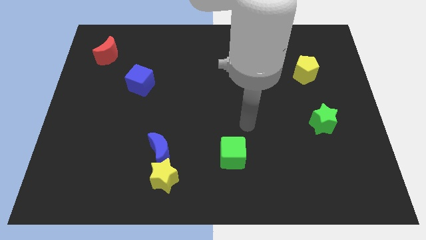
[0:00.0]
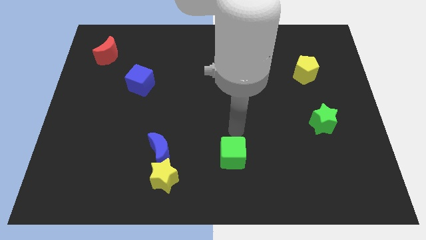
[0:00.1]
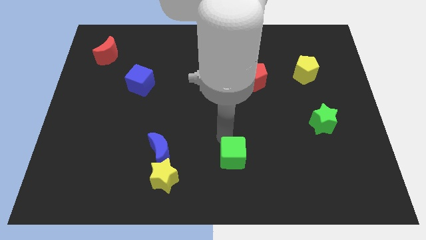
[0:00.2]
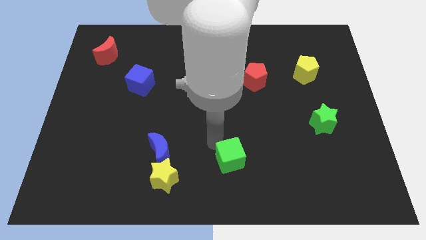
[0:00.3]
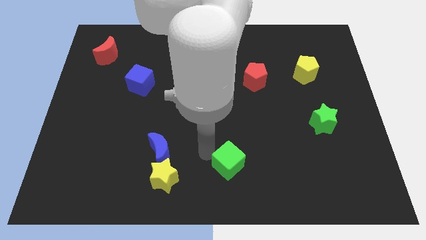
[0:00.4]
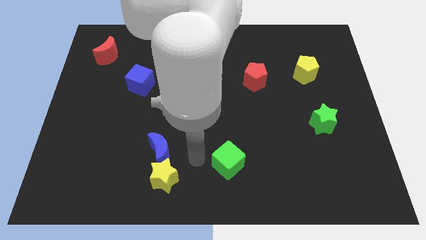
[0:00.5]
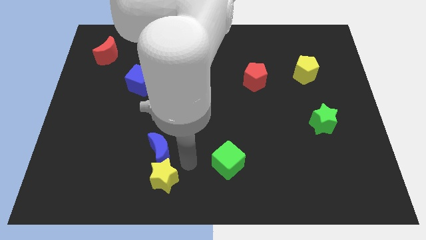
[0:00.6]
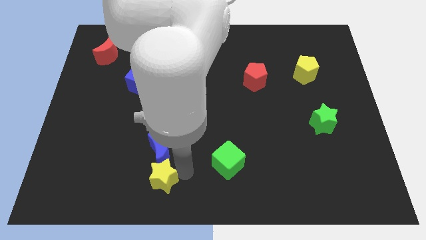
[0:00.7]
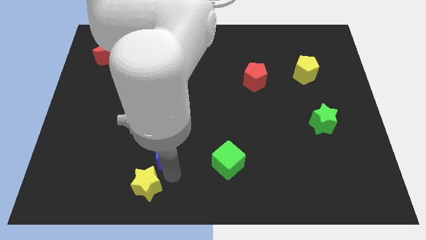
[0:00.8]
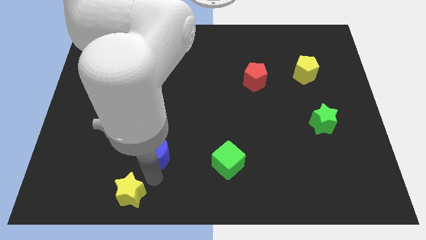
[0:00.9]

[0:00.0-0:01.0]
pull the blue moon apart from the yellow star

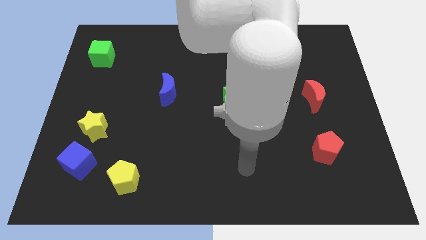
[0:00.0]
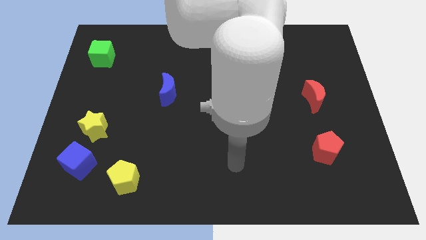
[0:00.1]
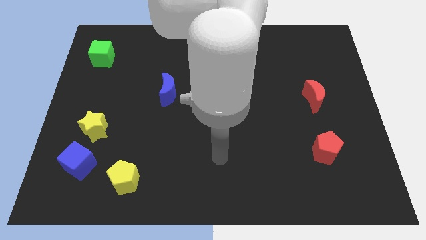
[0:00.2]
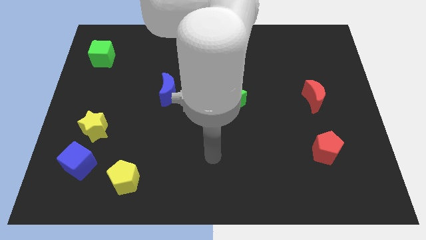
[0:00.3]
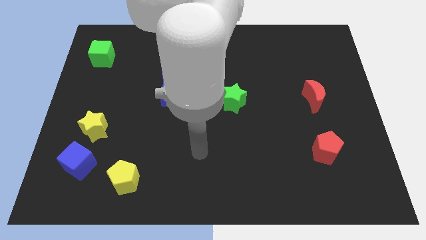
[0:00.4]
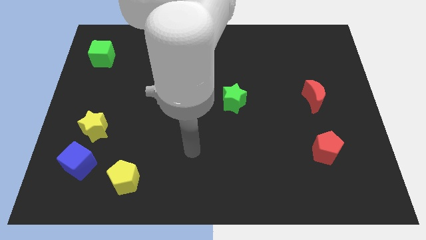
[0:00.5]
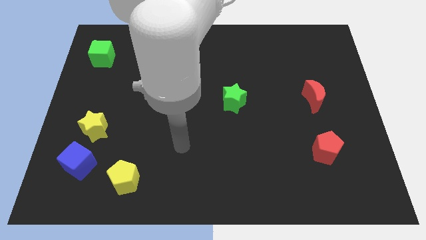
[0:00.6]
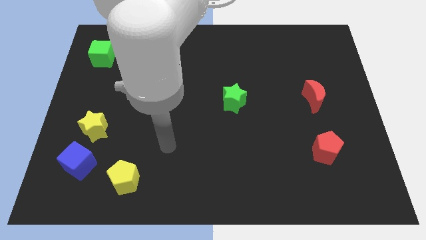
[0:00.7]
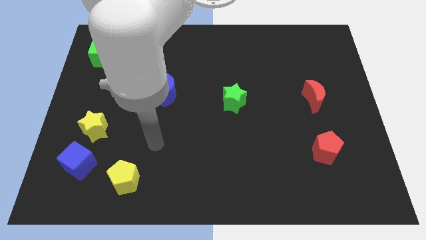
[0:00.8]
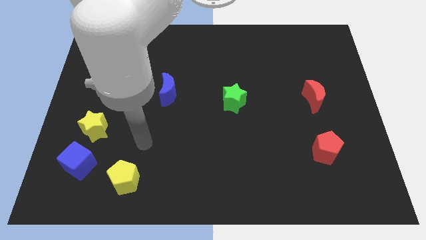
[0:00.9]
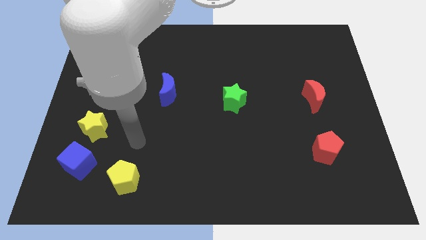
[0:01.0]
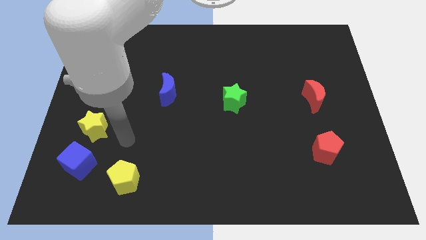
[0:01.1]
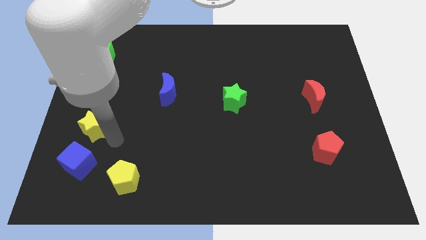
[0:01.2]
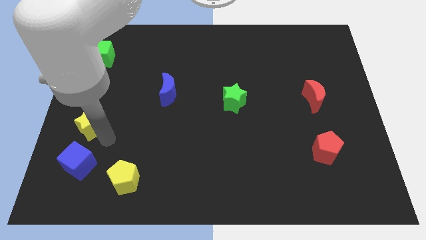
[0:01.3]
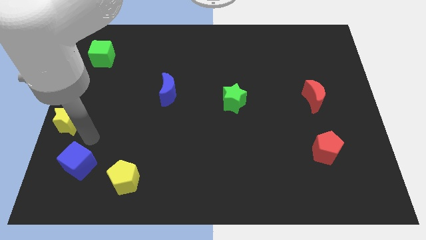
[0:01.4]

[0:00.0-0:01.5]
pull the blue cube apart from the yellow star

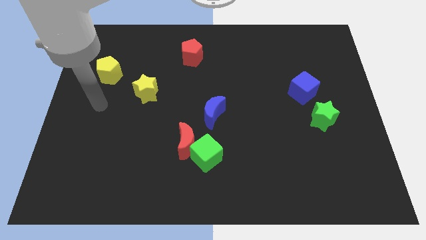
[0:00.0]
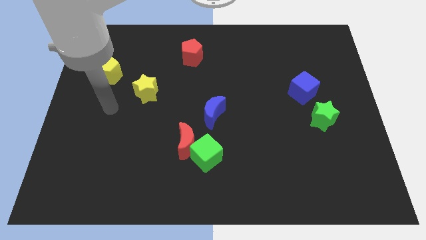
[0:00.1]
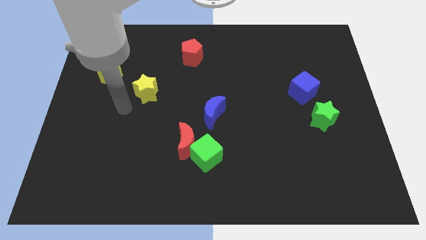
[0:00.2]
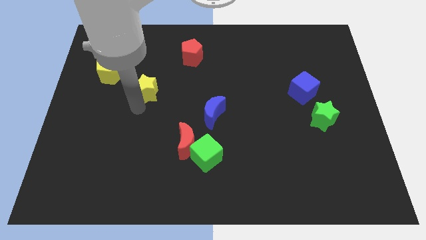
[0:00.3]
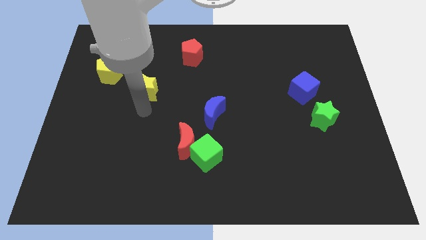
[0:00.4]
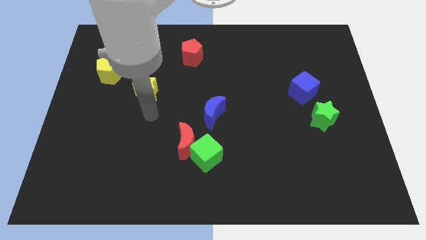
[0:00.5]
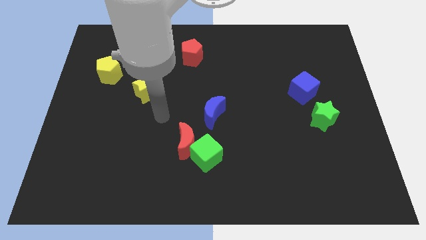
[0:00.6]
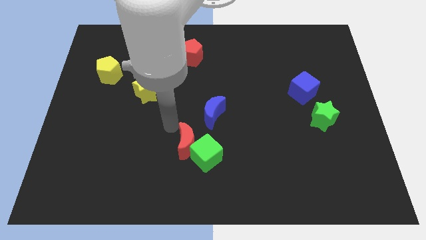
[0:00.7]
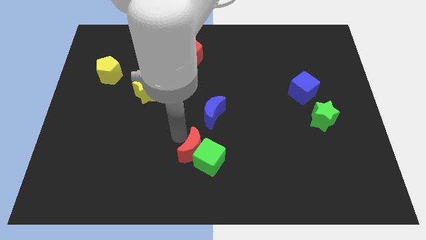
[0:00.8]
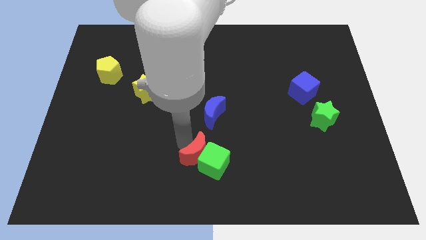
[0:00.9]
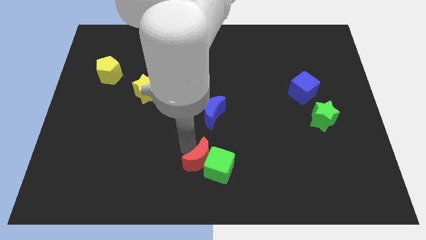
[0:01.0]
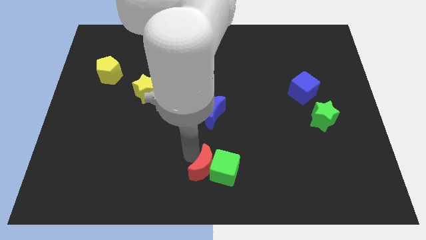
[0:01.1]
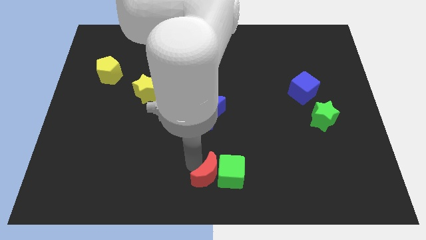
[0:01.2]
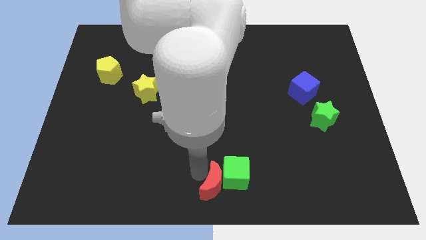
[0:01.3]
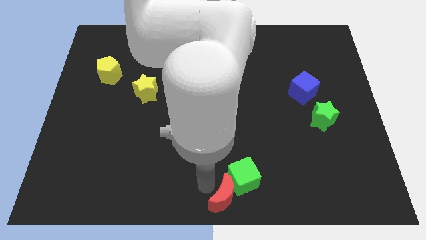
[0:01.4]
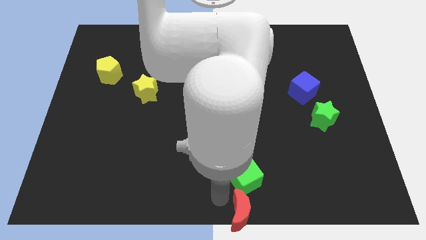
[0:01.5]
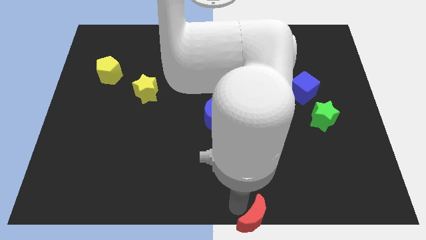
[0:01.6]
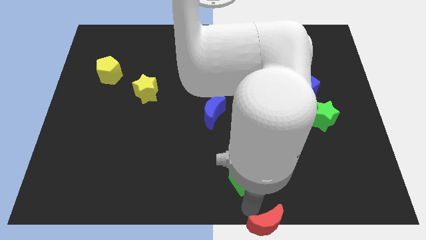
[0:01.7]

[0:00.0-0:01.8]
separate the green cube from the red moon

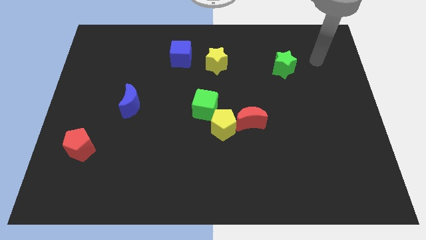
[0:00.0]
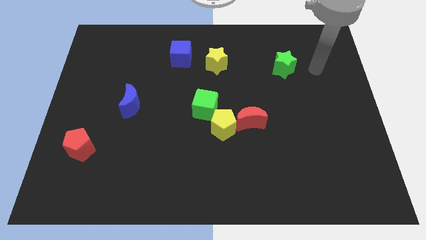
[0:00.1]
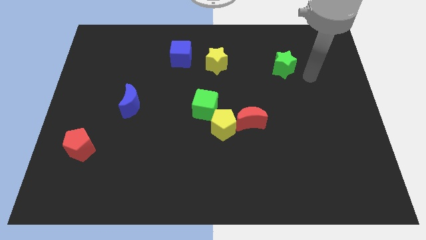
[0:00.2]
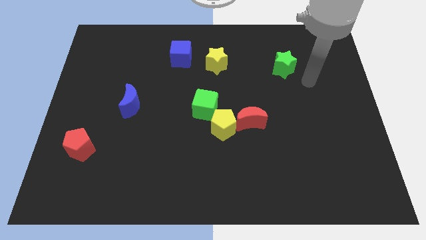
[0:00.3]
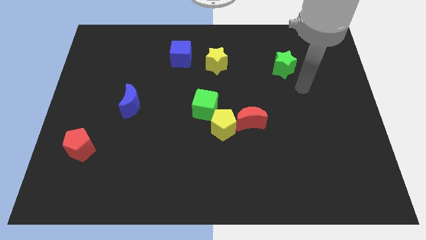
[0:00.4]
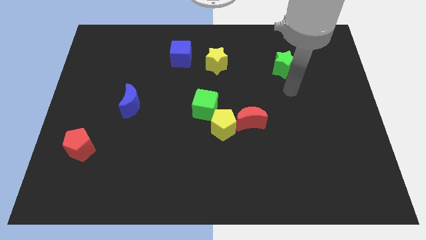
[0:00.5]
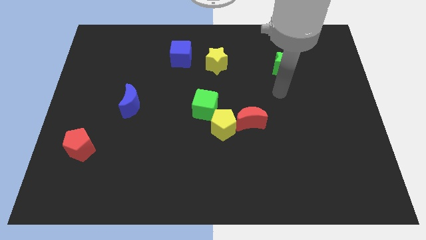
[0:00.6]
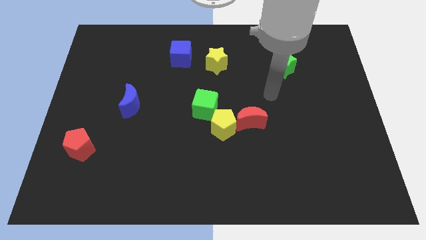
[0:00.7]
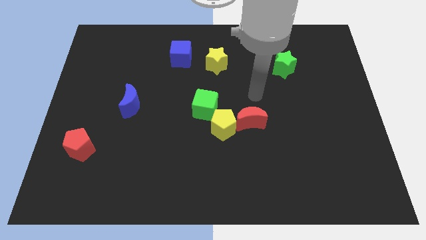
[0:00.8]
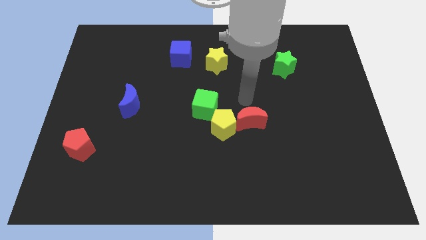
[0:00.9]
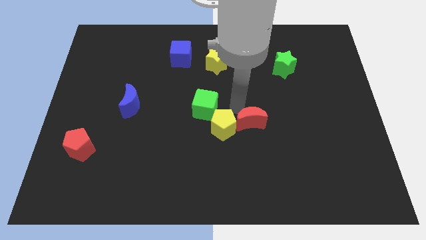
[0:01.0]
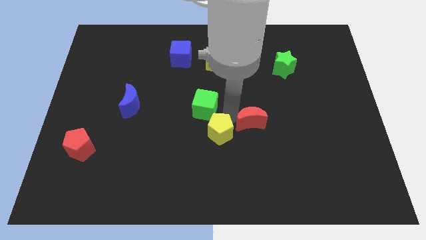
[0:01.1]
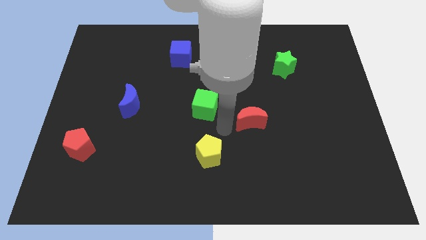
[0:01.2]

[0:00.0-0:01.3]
move the red moon away from the yellow pentagon

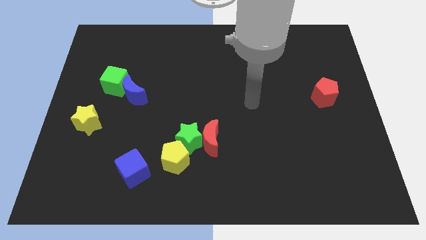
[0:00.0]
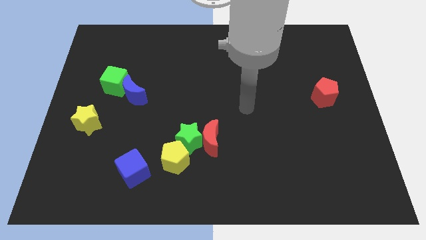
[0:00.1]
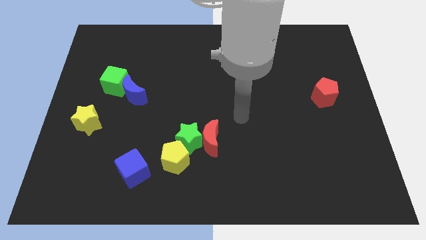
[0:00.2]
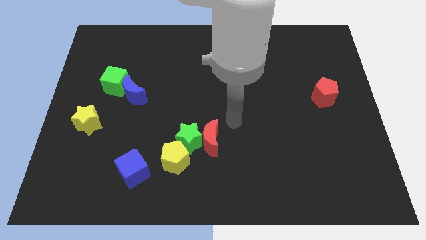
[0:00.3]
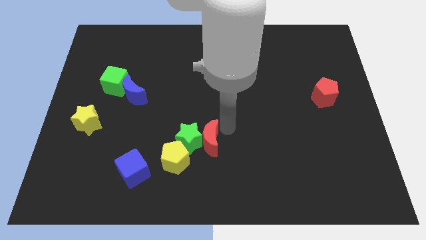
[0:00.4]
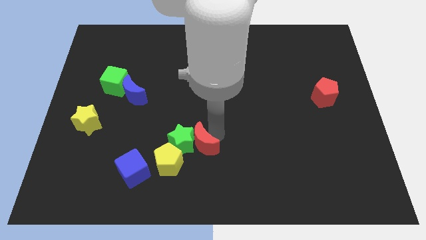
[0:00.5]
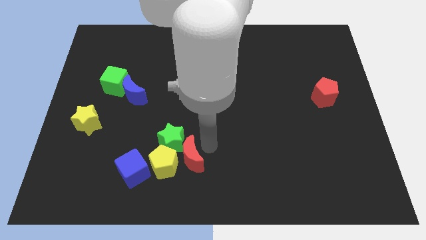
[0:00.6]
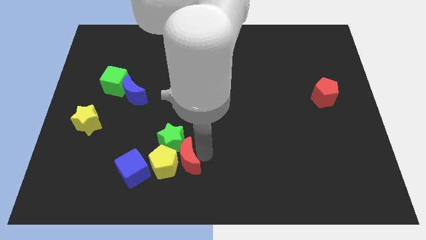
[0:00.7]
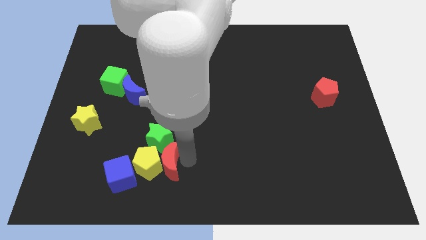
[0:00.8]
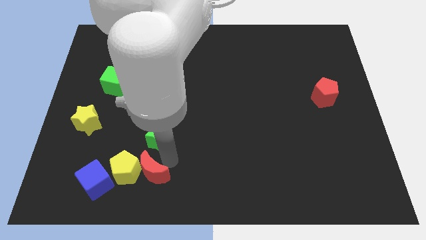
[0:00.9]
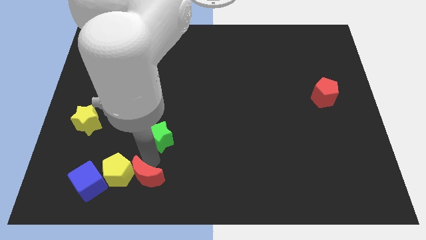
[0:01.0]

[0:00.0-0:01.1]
pull the green star apart from the red moon and yellow pentagon

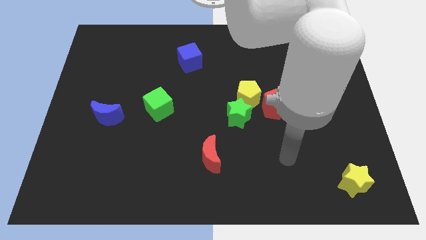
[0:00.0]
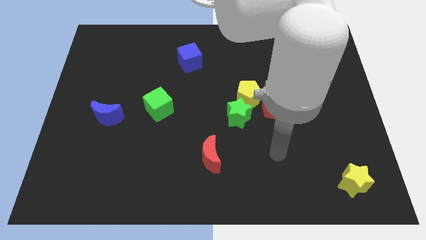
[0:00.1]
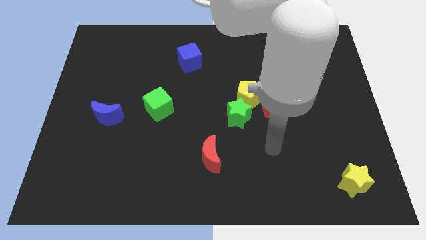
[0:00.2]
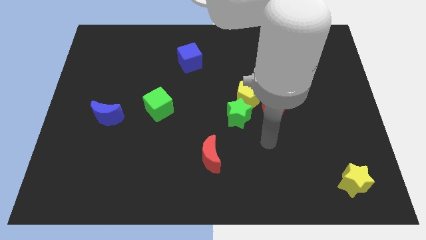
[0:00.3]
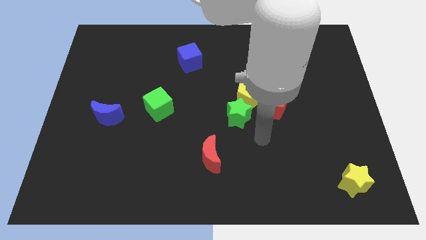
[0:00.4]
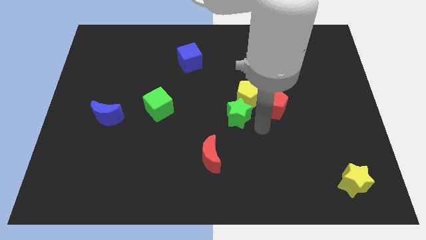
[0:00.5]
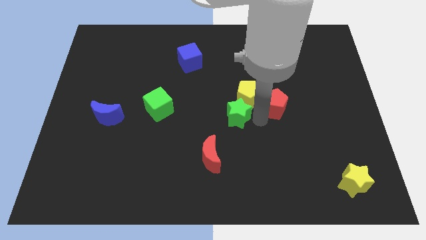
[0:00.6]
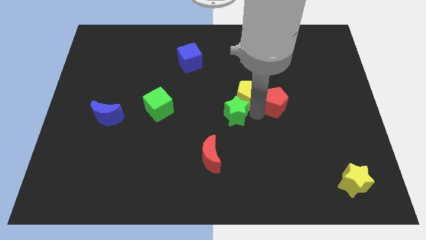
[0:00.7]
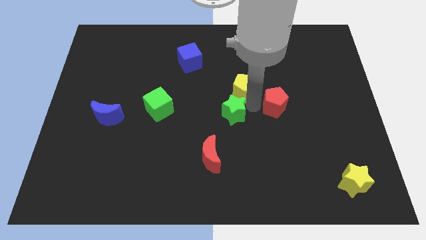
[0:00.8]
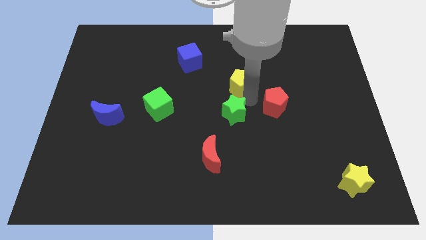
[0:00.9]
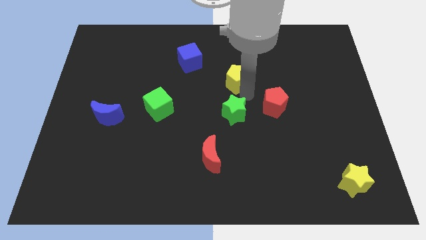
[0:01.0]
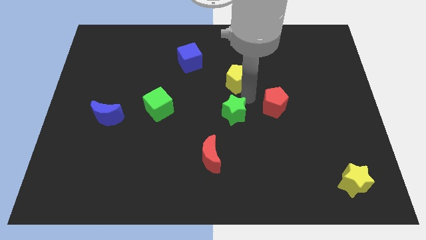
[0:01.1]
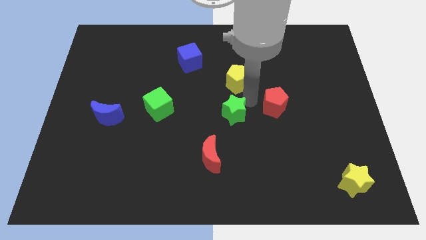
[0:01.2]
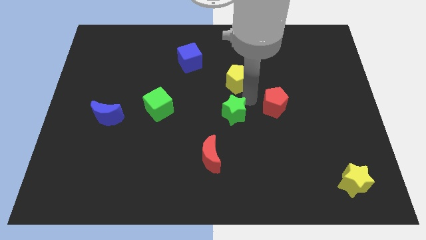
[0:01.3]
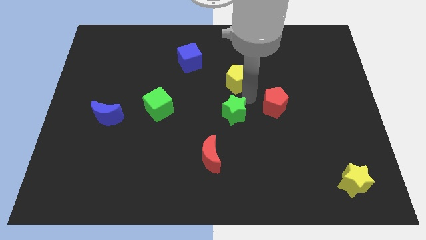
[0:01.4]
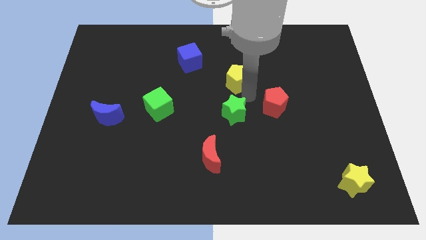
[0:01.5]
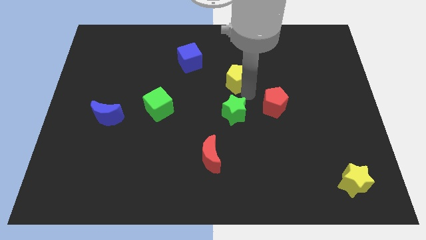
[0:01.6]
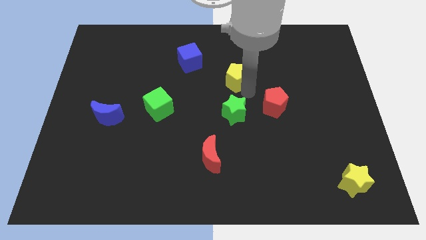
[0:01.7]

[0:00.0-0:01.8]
move the yellow pentagon away from the red pentagon and green star

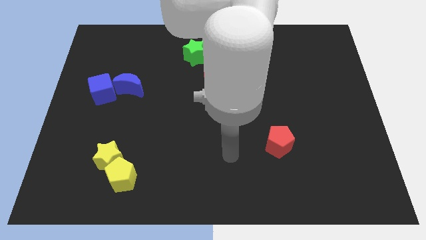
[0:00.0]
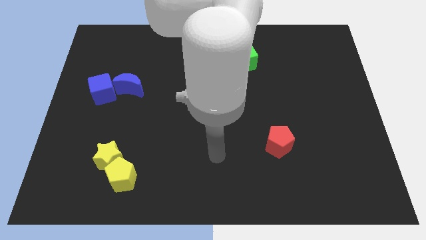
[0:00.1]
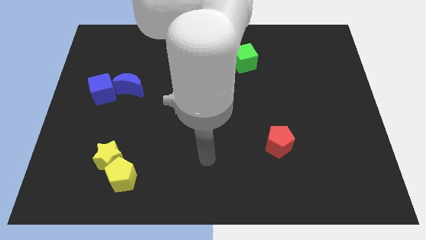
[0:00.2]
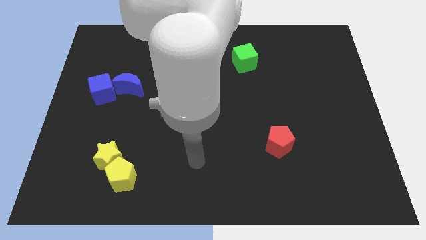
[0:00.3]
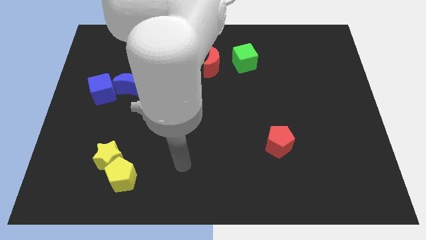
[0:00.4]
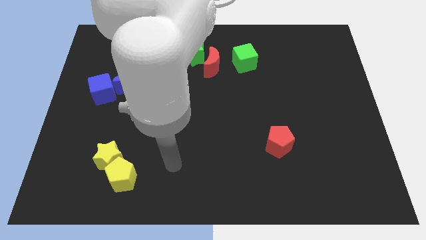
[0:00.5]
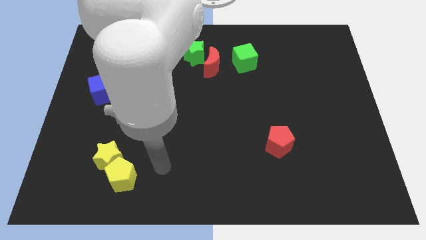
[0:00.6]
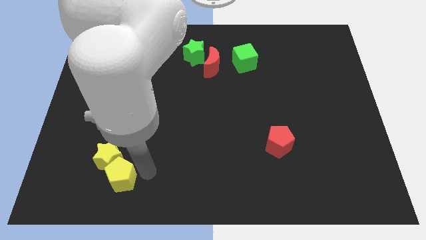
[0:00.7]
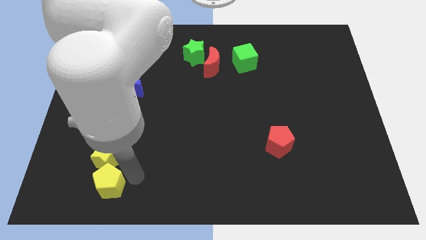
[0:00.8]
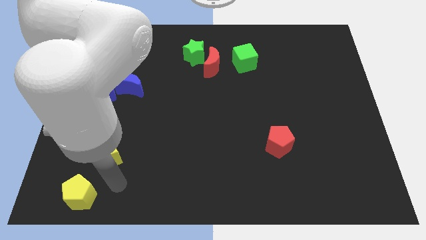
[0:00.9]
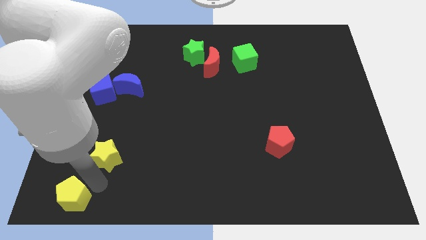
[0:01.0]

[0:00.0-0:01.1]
pull the yellow star apart from the yellow pentagon
